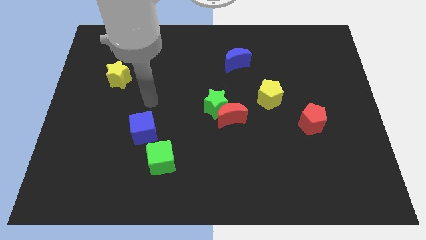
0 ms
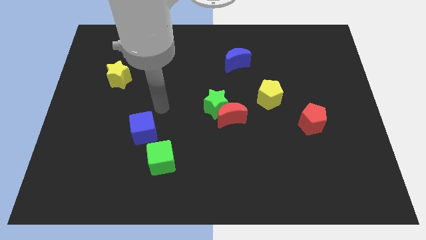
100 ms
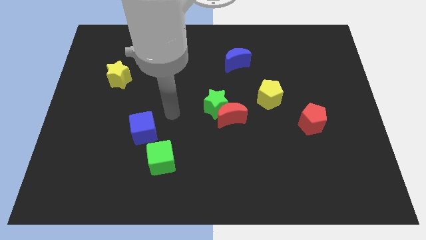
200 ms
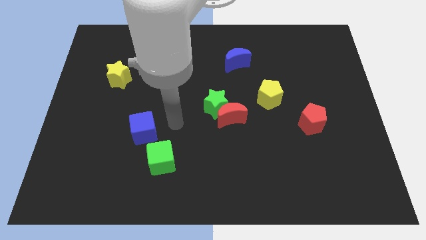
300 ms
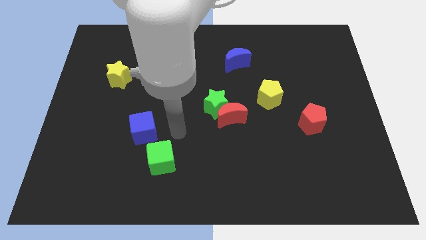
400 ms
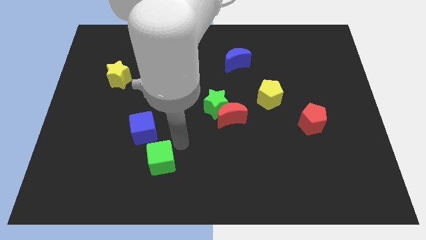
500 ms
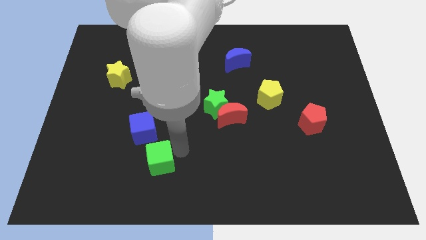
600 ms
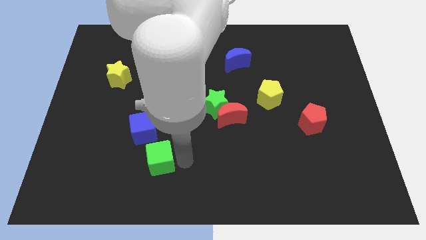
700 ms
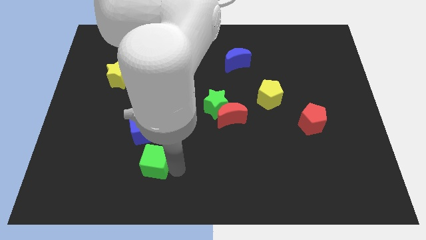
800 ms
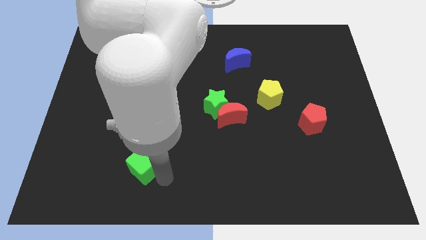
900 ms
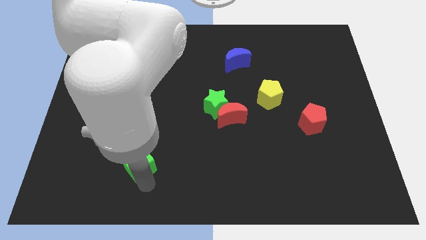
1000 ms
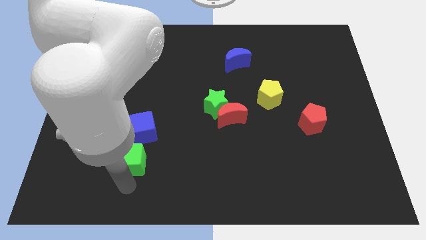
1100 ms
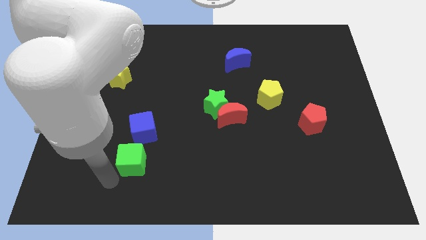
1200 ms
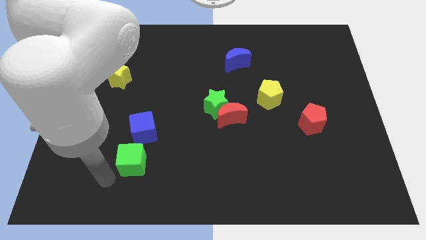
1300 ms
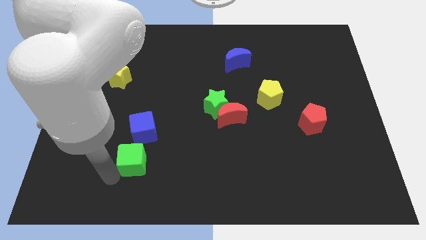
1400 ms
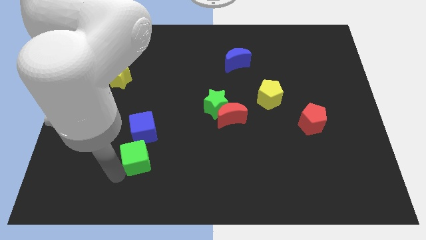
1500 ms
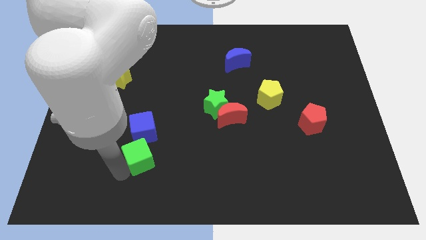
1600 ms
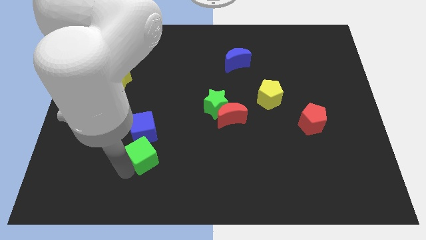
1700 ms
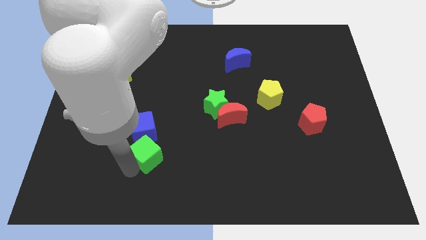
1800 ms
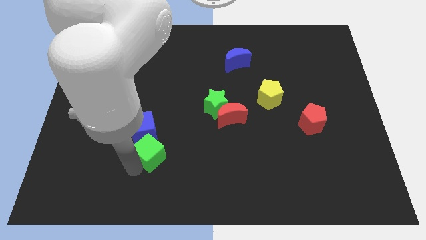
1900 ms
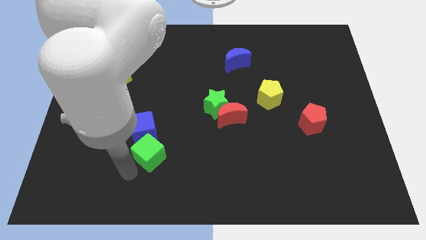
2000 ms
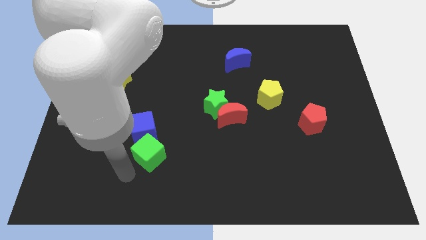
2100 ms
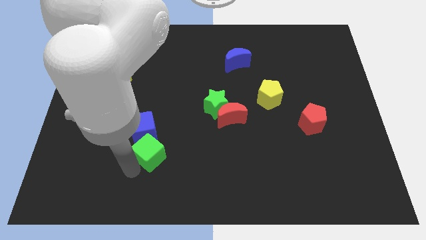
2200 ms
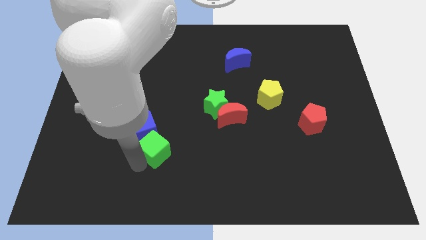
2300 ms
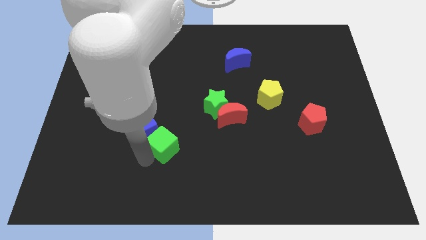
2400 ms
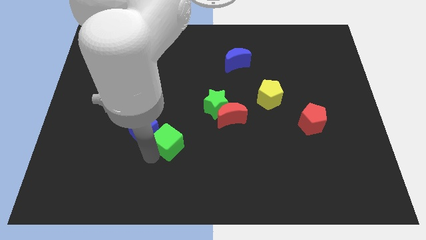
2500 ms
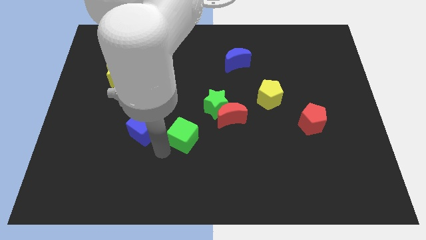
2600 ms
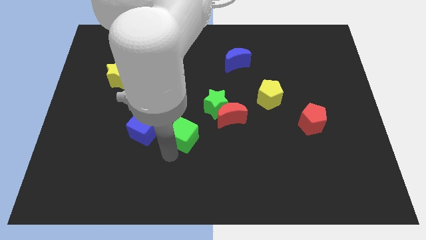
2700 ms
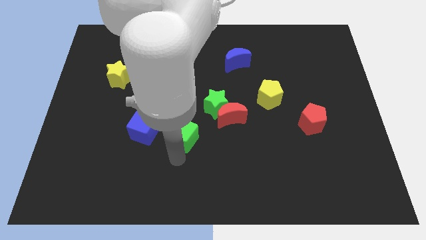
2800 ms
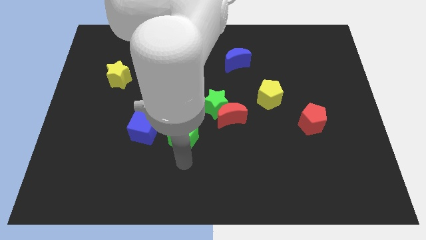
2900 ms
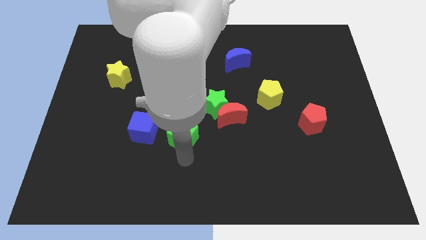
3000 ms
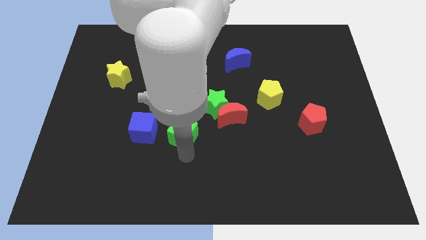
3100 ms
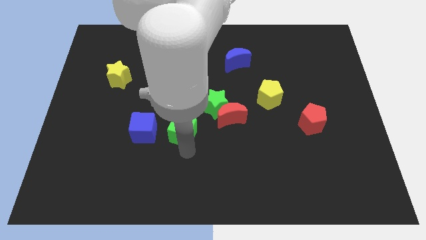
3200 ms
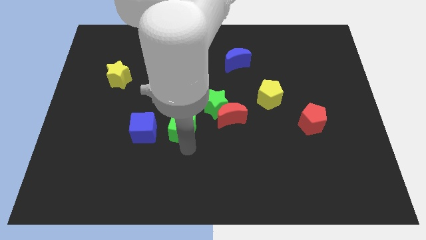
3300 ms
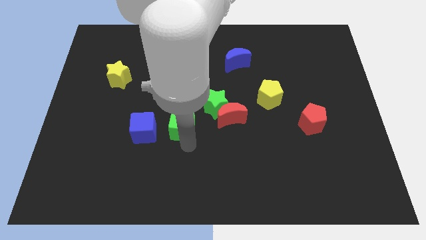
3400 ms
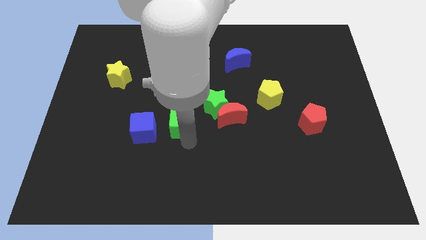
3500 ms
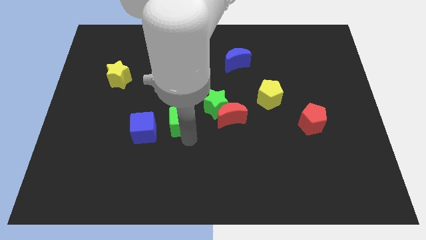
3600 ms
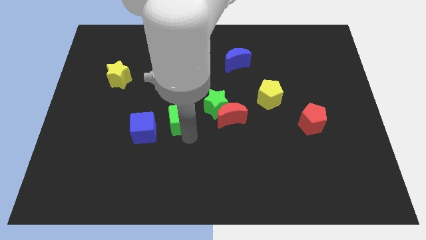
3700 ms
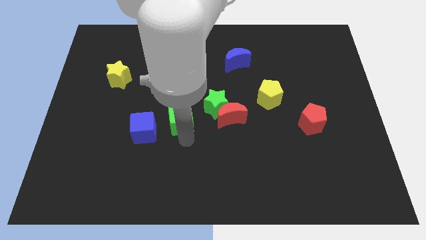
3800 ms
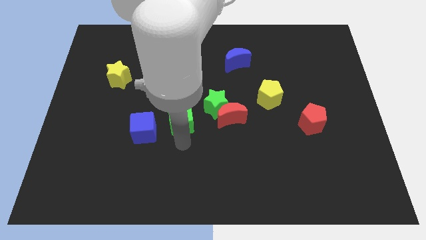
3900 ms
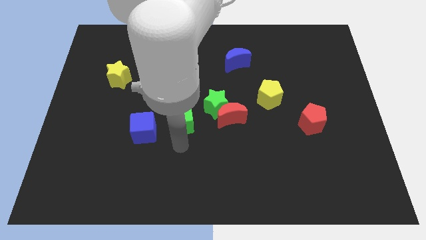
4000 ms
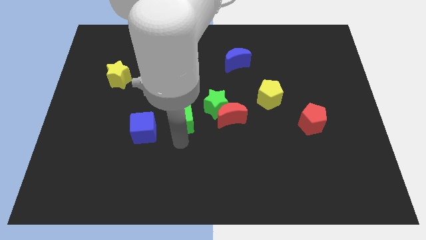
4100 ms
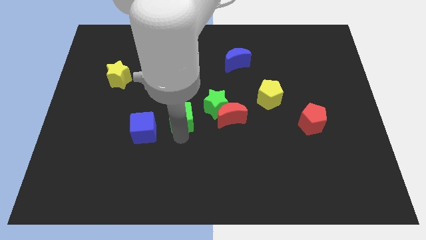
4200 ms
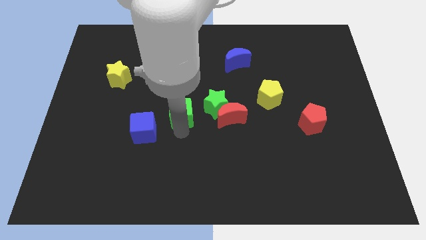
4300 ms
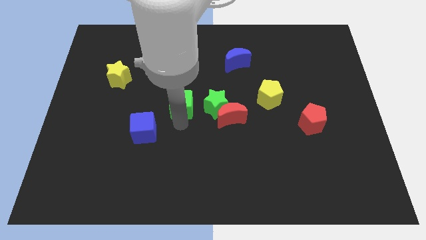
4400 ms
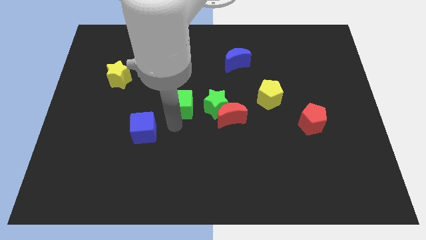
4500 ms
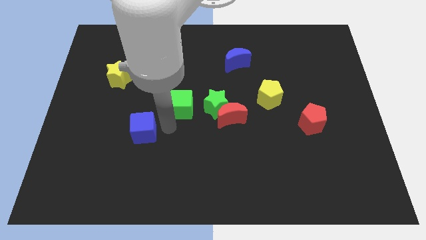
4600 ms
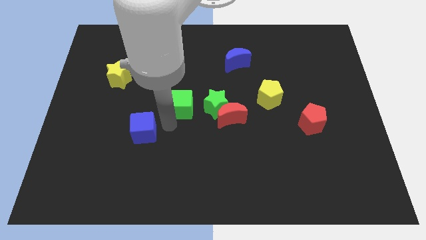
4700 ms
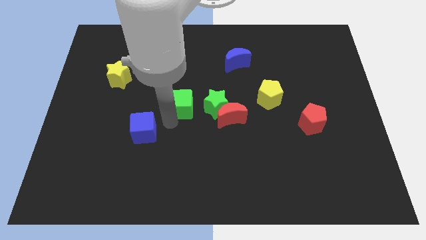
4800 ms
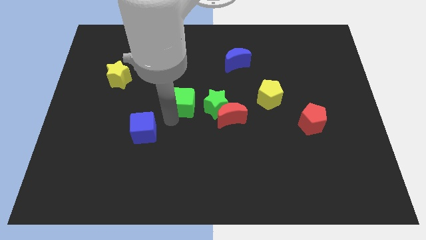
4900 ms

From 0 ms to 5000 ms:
move the green cube diagonally up and to the left of the green star

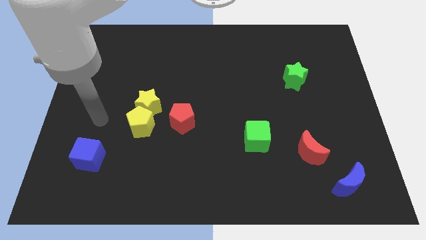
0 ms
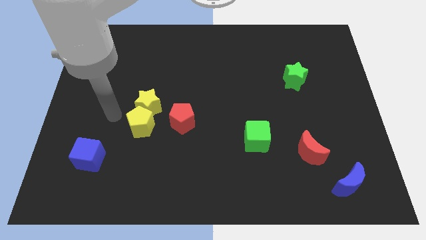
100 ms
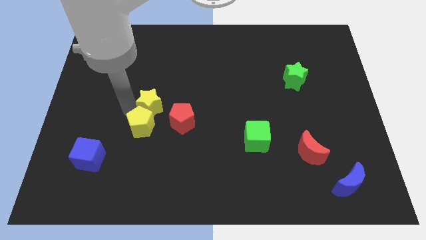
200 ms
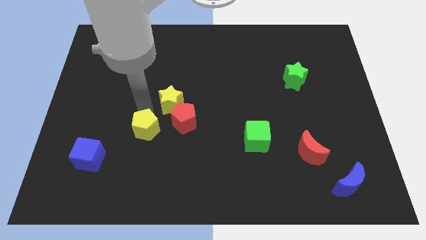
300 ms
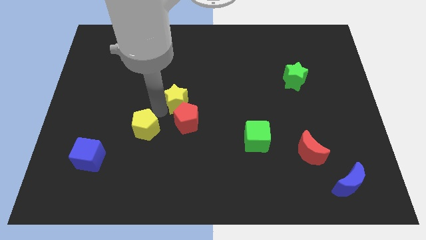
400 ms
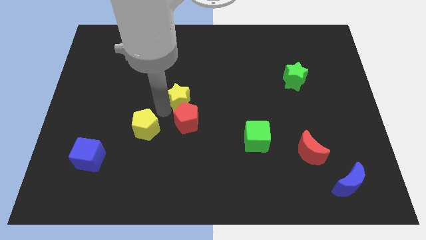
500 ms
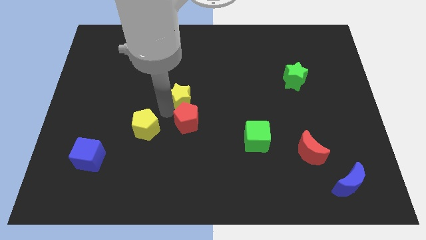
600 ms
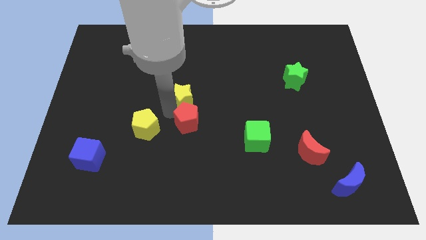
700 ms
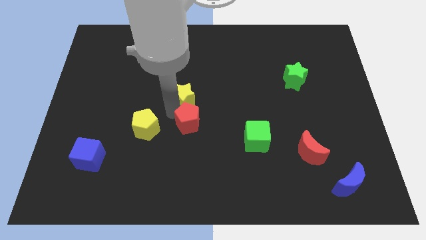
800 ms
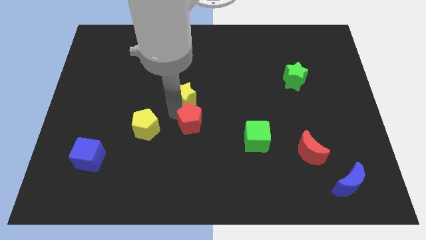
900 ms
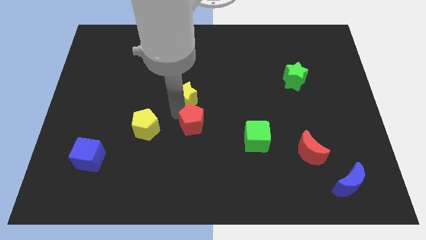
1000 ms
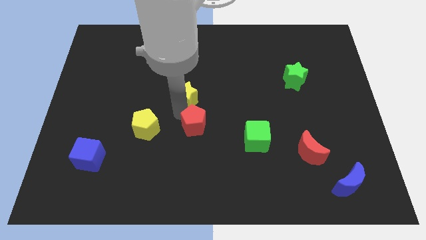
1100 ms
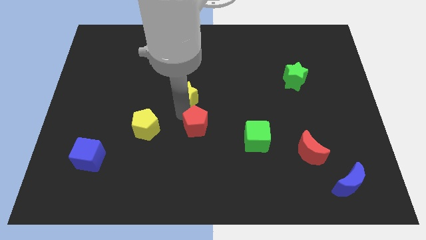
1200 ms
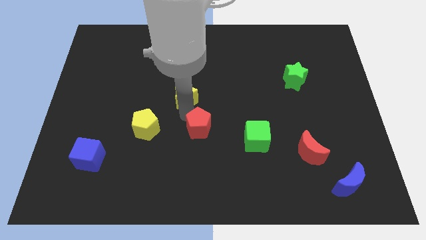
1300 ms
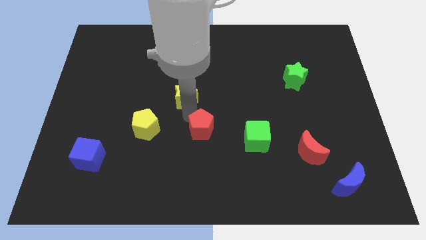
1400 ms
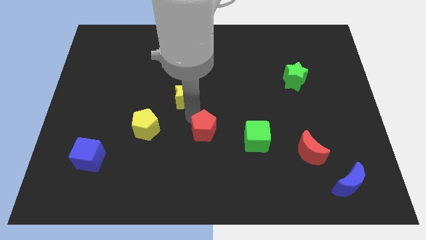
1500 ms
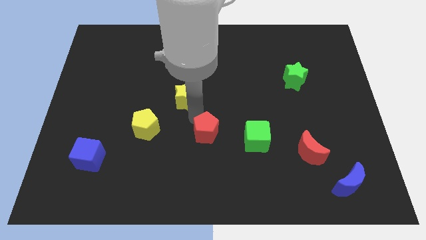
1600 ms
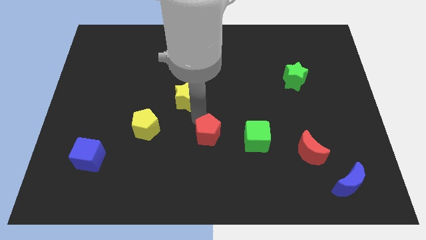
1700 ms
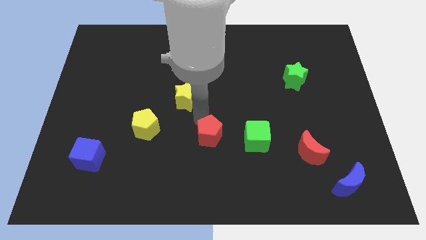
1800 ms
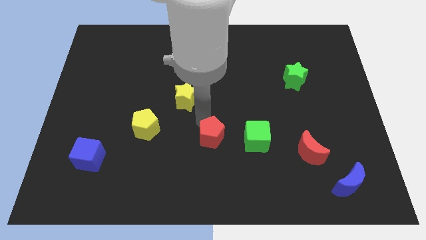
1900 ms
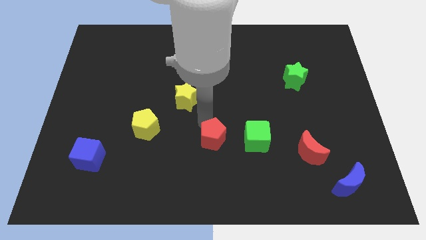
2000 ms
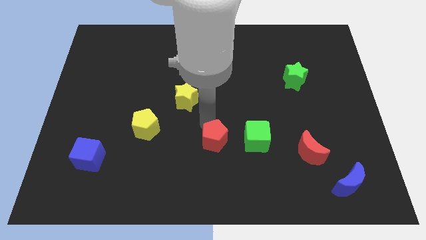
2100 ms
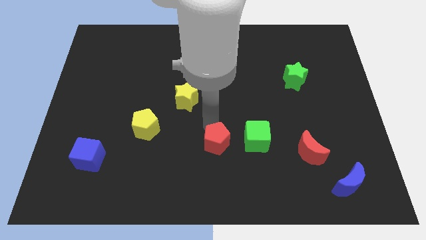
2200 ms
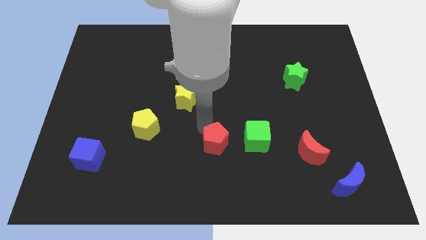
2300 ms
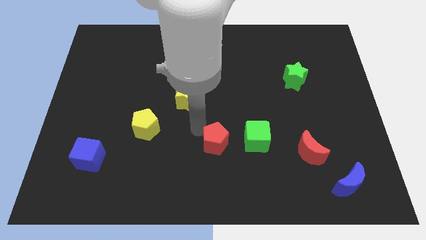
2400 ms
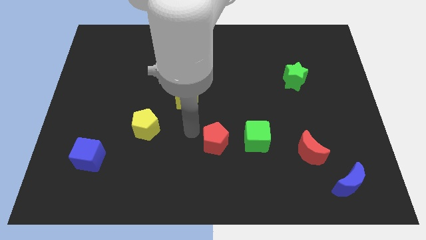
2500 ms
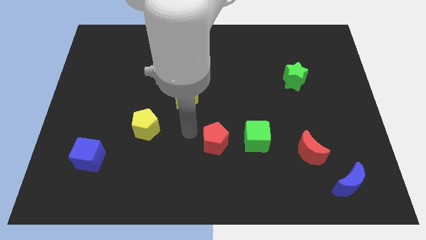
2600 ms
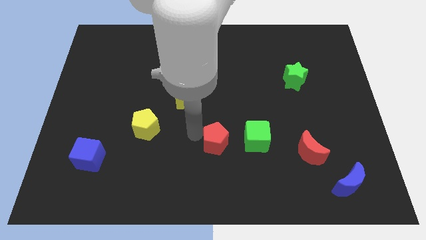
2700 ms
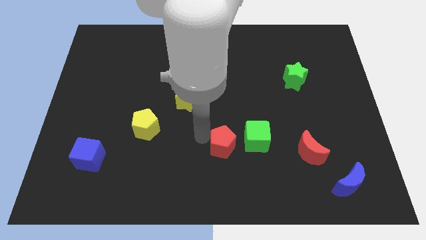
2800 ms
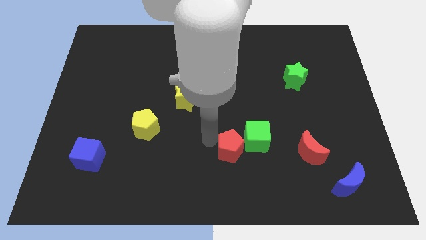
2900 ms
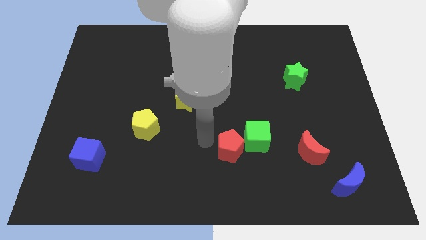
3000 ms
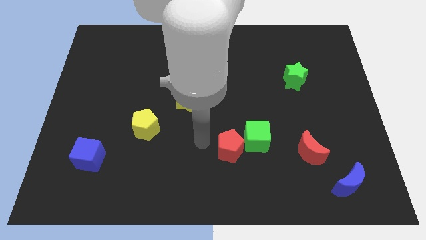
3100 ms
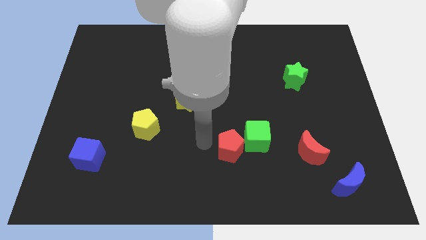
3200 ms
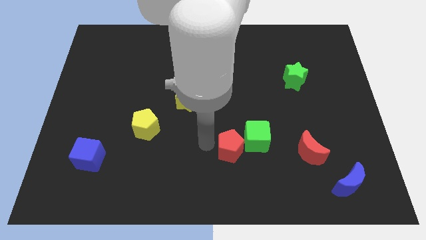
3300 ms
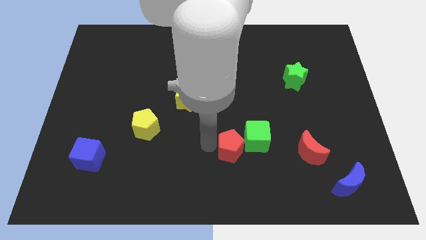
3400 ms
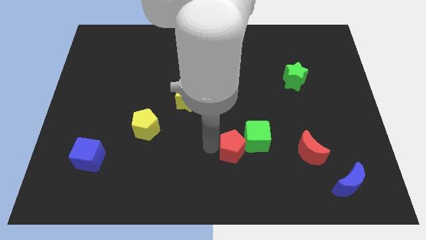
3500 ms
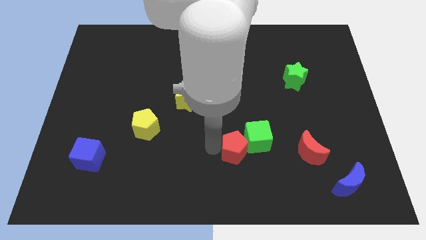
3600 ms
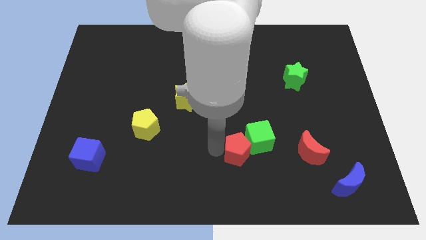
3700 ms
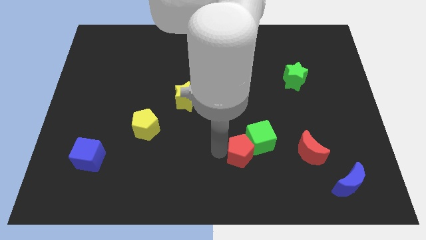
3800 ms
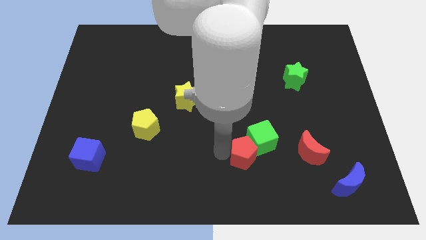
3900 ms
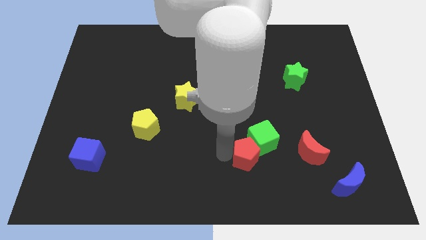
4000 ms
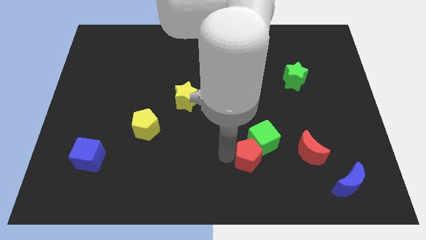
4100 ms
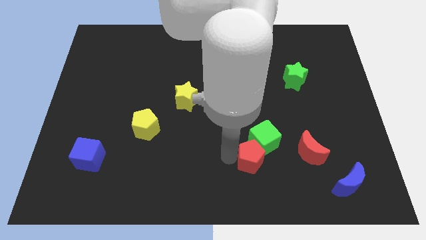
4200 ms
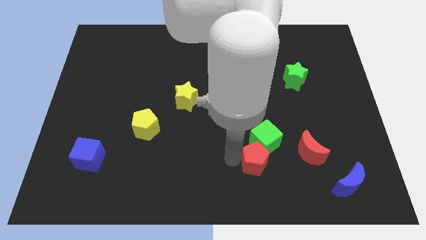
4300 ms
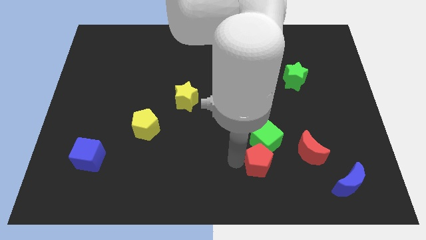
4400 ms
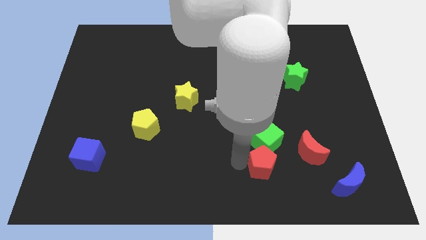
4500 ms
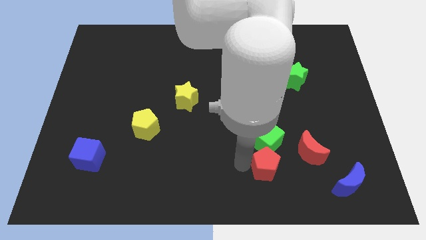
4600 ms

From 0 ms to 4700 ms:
put the red pentagon to the bottom left of the red moon
